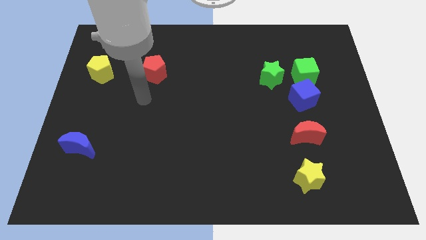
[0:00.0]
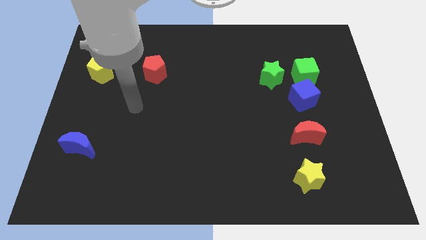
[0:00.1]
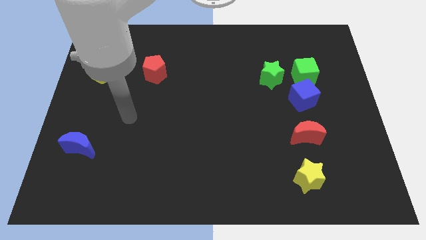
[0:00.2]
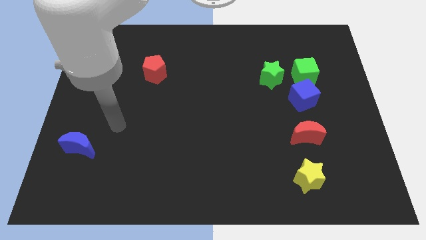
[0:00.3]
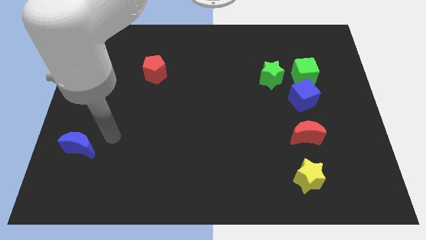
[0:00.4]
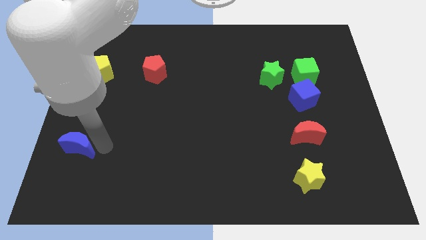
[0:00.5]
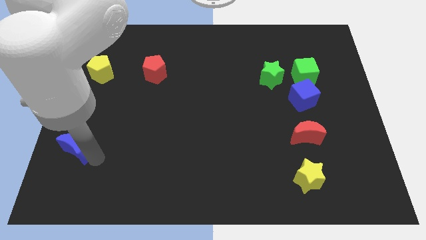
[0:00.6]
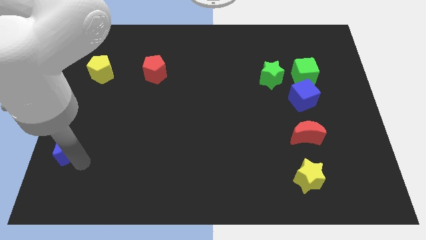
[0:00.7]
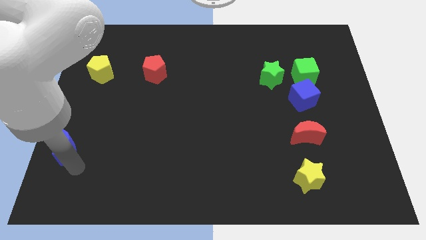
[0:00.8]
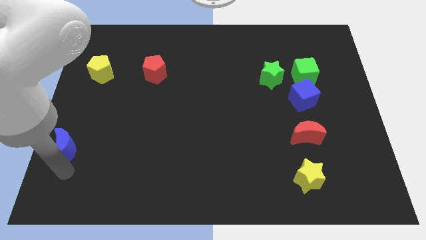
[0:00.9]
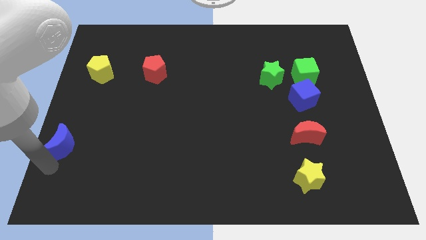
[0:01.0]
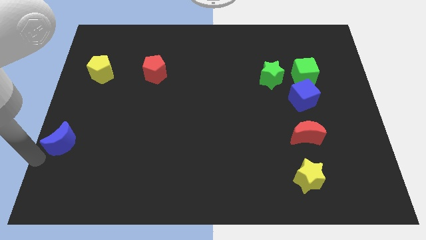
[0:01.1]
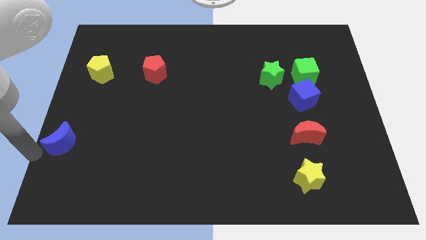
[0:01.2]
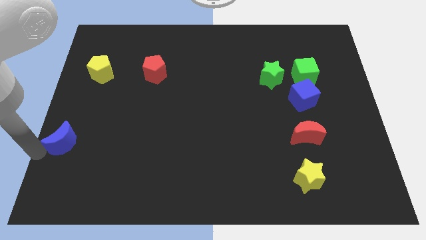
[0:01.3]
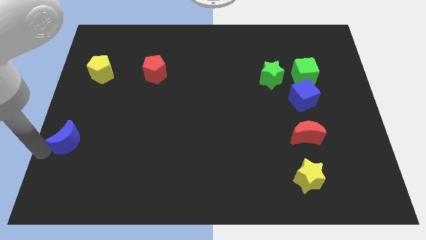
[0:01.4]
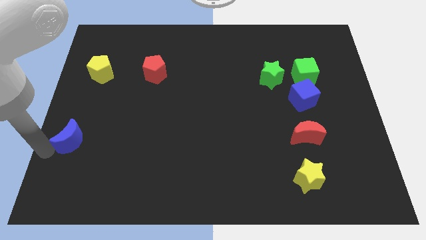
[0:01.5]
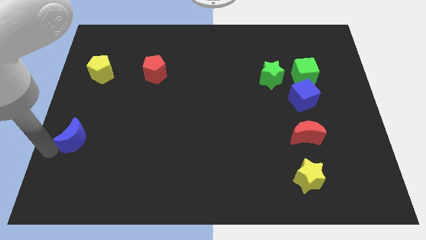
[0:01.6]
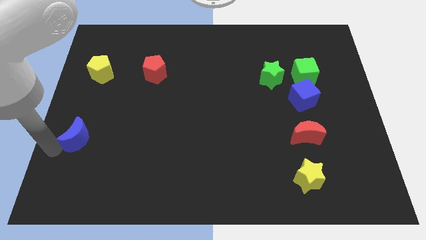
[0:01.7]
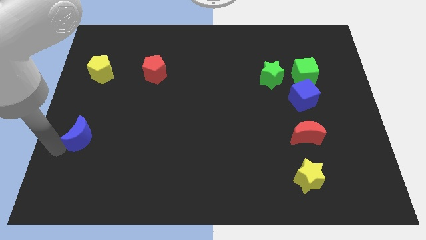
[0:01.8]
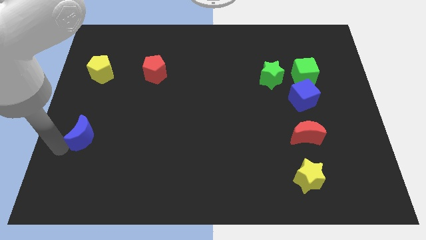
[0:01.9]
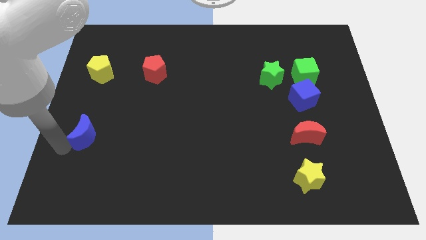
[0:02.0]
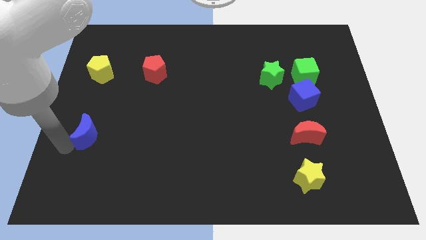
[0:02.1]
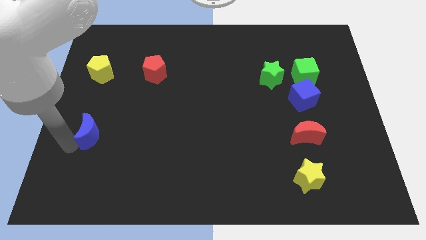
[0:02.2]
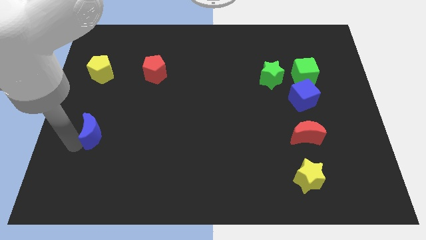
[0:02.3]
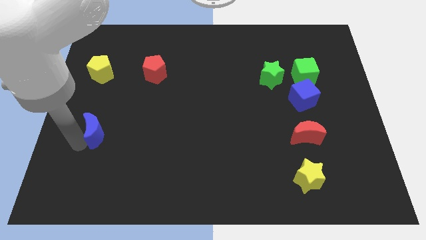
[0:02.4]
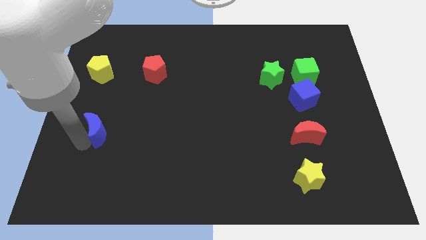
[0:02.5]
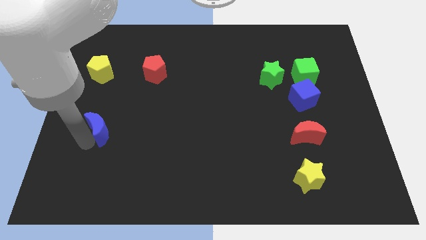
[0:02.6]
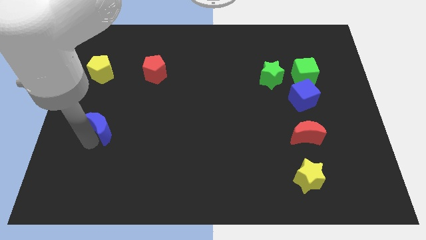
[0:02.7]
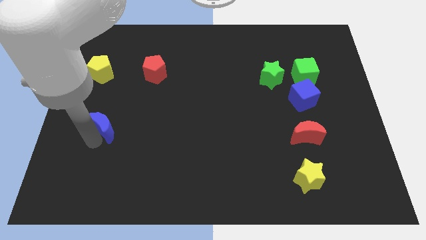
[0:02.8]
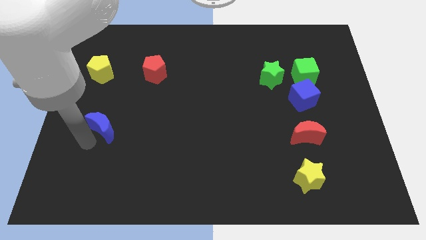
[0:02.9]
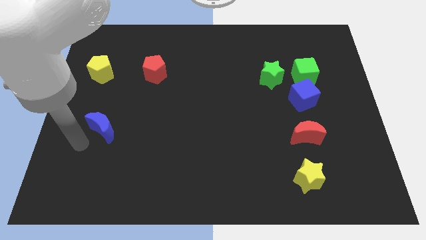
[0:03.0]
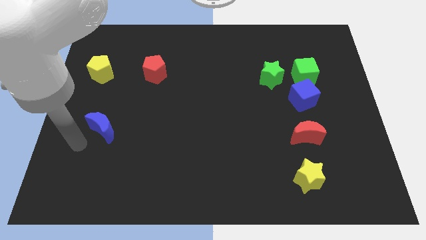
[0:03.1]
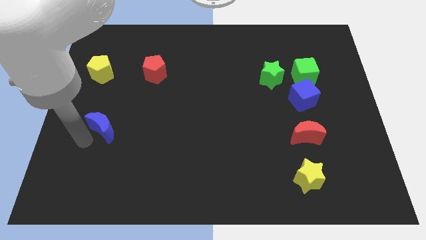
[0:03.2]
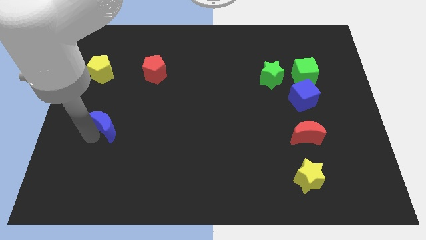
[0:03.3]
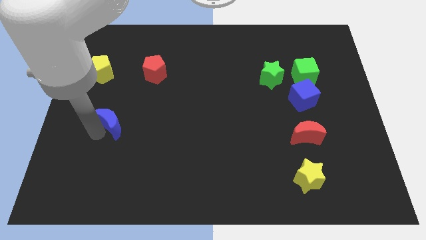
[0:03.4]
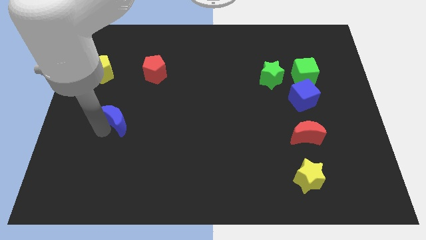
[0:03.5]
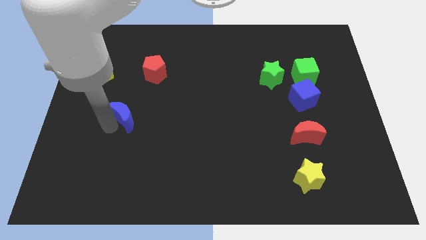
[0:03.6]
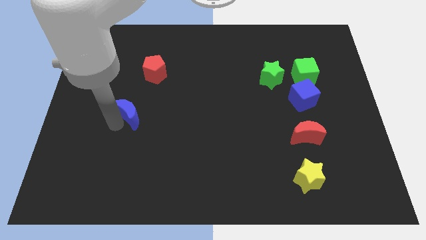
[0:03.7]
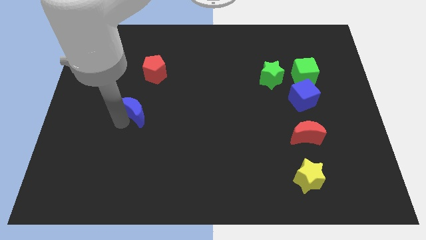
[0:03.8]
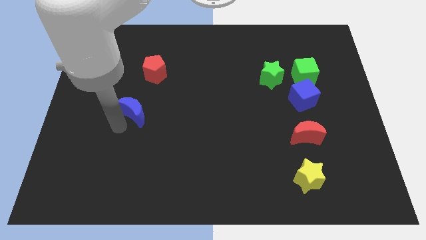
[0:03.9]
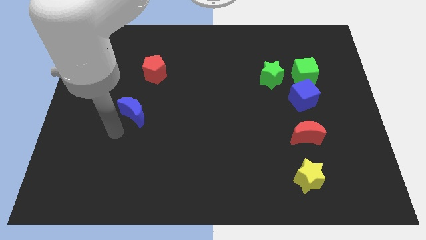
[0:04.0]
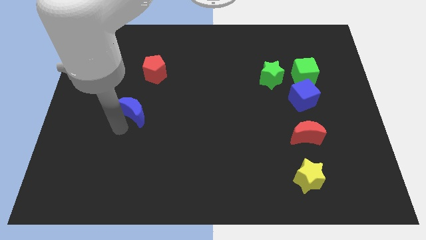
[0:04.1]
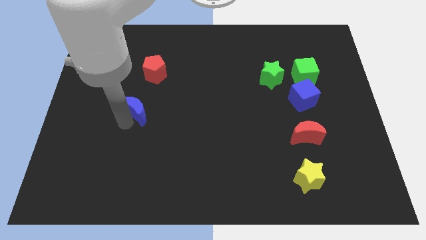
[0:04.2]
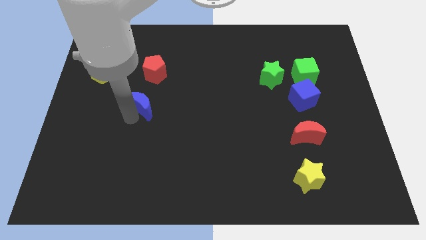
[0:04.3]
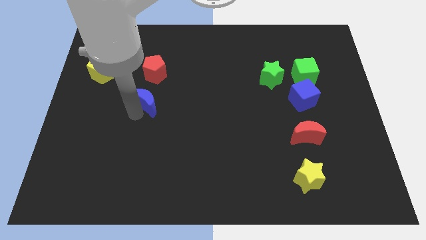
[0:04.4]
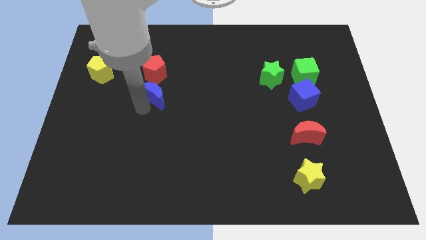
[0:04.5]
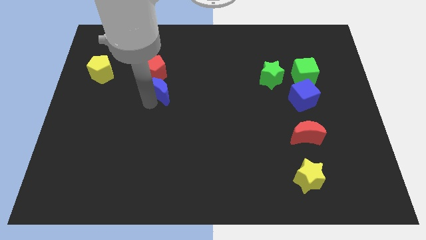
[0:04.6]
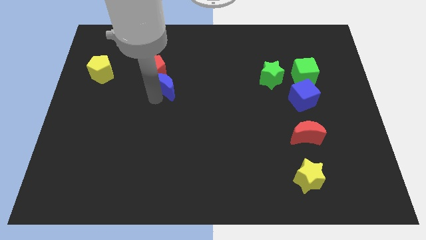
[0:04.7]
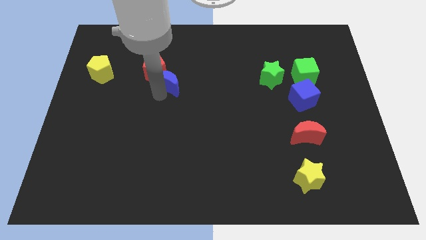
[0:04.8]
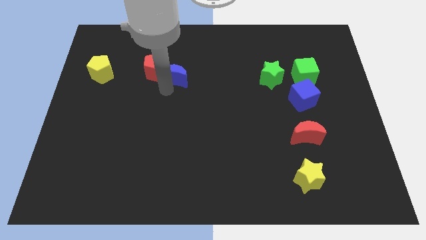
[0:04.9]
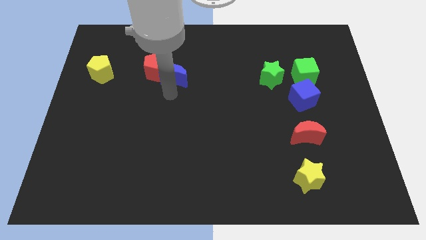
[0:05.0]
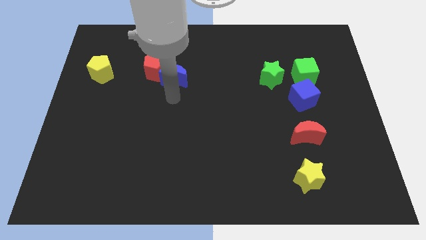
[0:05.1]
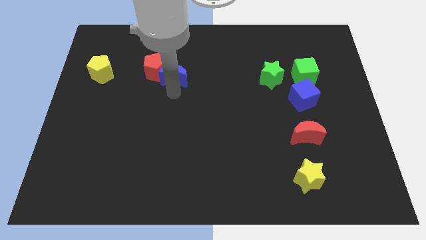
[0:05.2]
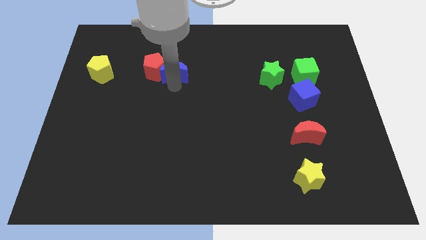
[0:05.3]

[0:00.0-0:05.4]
put the blue moon to the top right side of the red pentagon

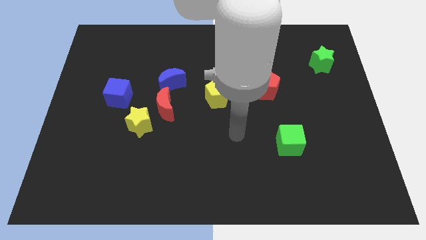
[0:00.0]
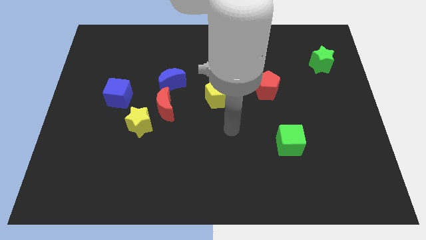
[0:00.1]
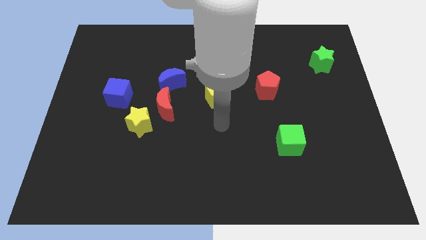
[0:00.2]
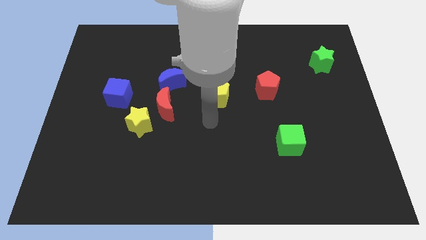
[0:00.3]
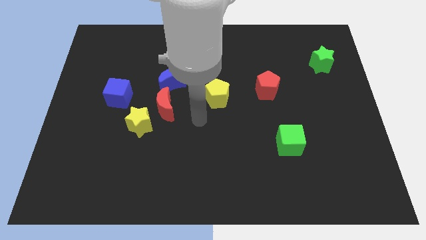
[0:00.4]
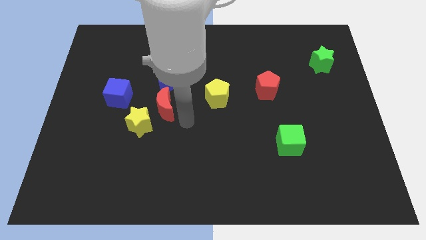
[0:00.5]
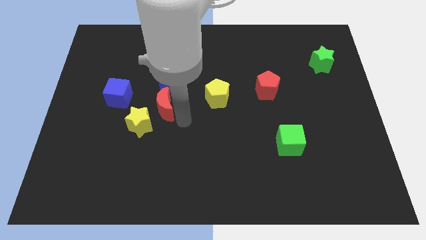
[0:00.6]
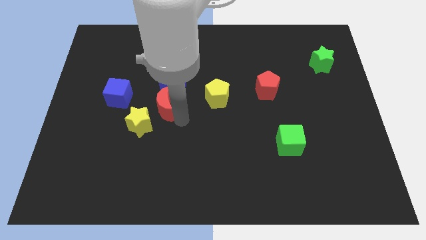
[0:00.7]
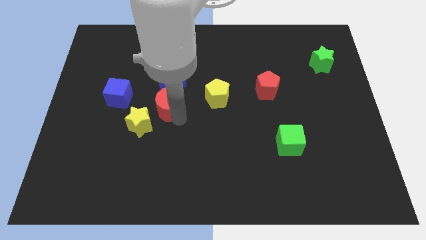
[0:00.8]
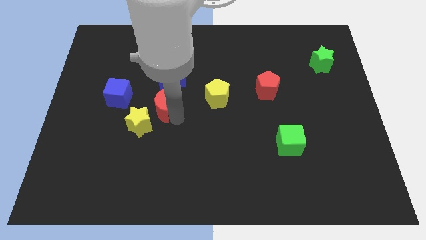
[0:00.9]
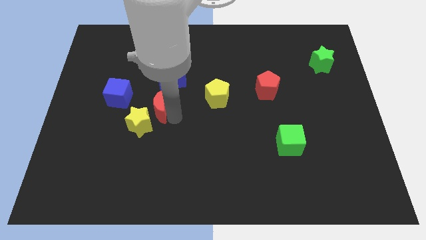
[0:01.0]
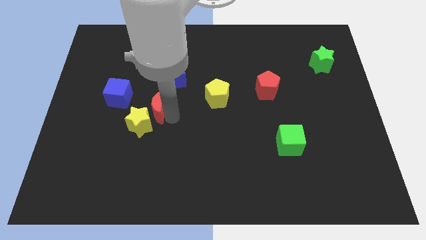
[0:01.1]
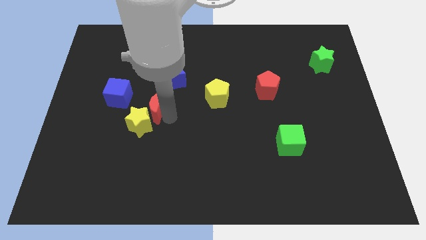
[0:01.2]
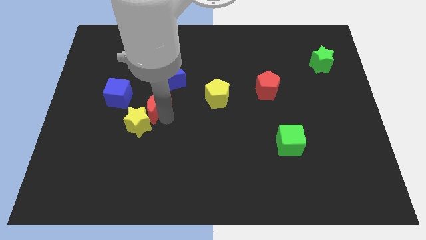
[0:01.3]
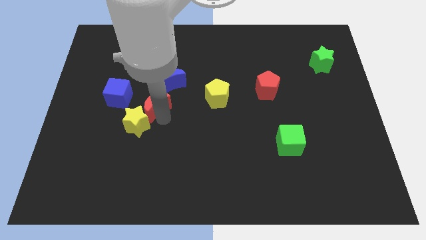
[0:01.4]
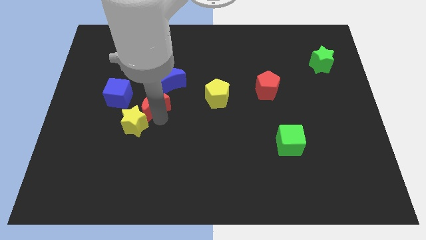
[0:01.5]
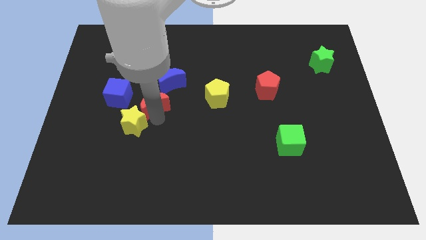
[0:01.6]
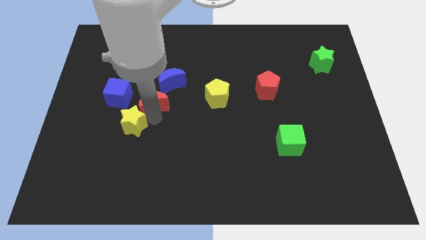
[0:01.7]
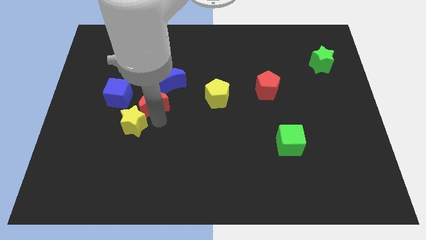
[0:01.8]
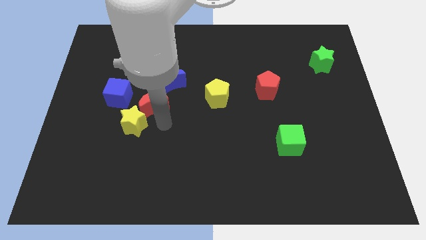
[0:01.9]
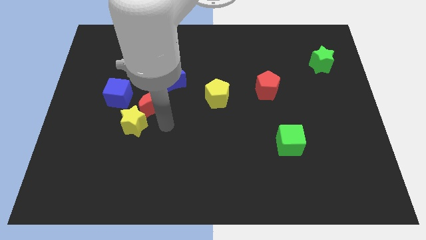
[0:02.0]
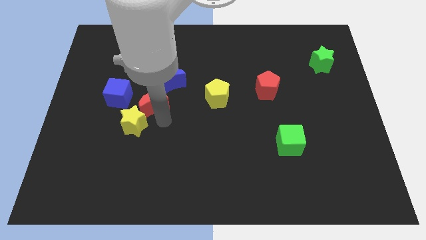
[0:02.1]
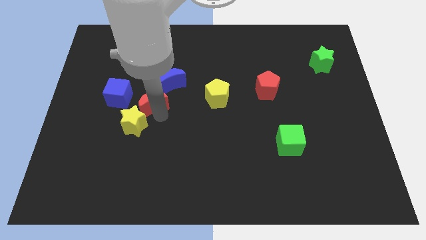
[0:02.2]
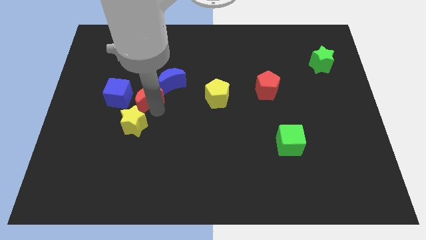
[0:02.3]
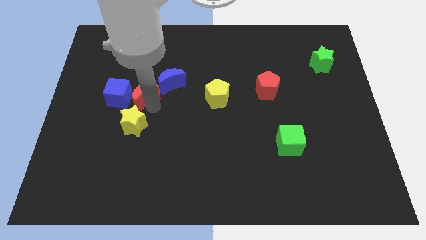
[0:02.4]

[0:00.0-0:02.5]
move the red moon just left of the blue moon
